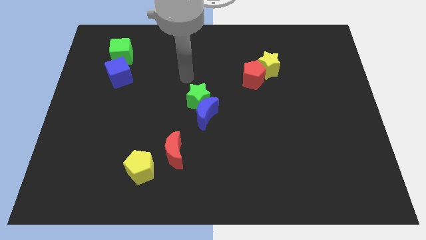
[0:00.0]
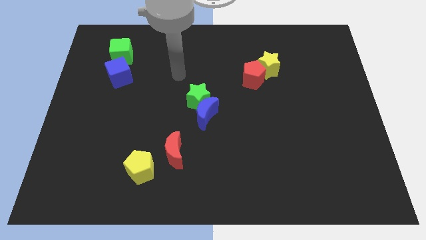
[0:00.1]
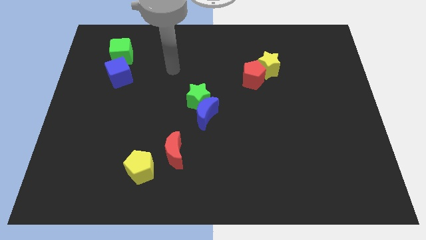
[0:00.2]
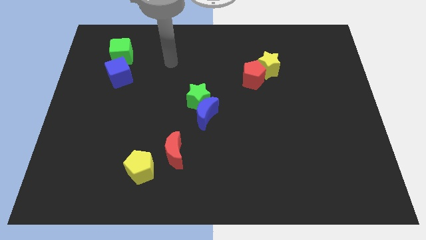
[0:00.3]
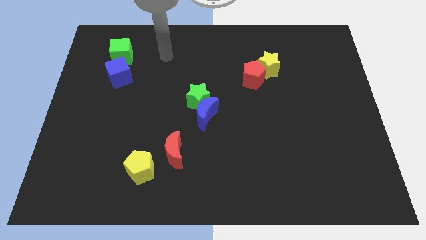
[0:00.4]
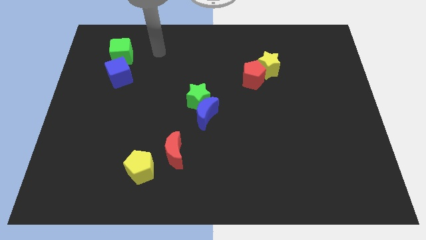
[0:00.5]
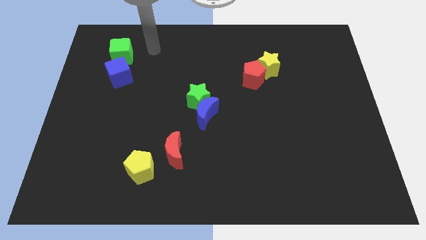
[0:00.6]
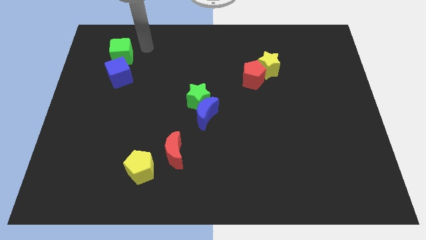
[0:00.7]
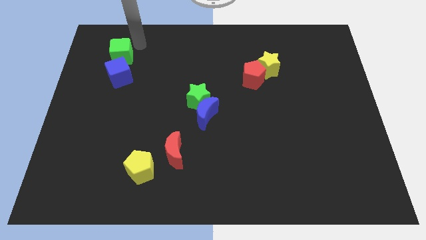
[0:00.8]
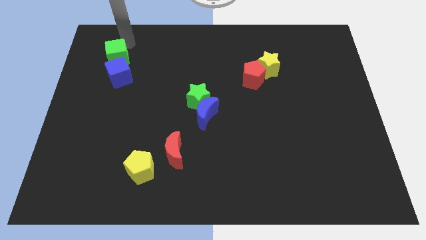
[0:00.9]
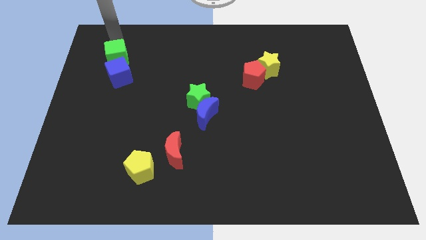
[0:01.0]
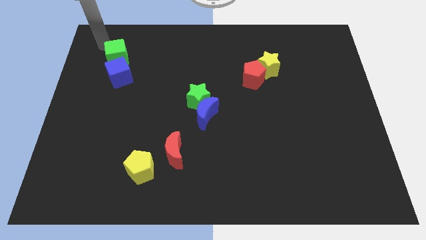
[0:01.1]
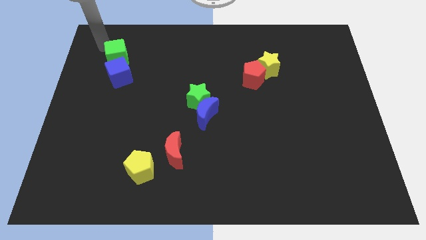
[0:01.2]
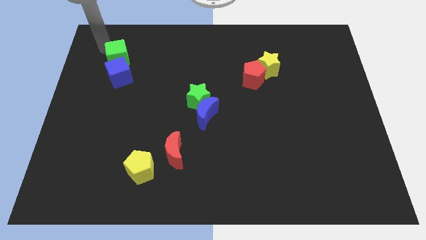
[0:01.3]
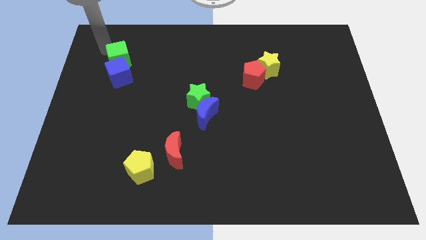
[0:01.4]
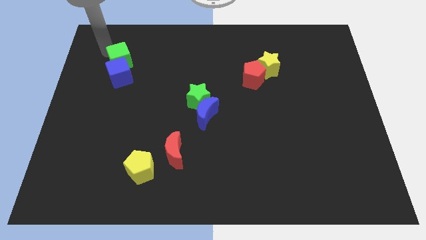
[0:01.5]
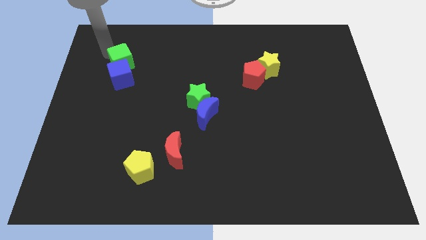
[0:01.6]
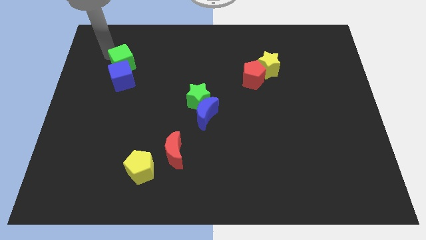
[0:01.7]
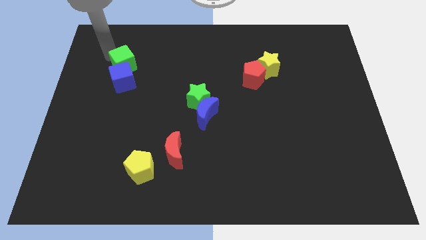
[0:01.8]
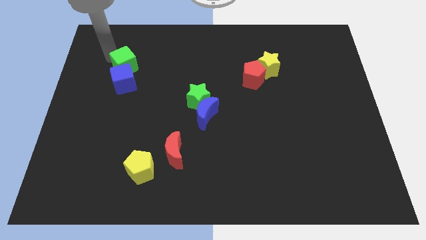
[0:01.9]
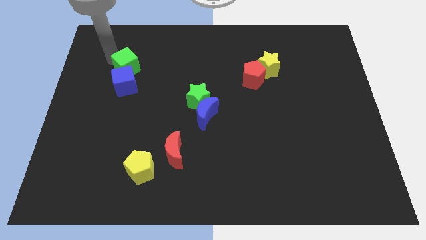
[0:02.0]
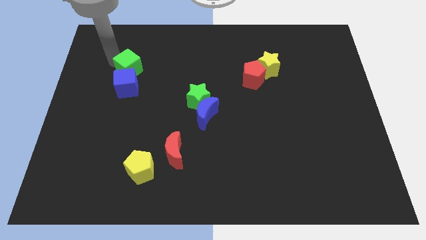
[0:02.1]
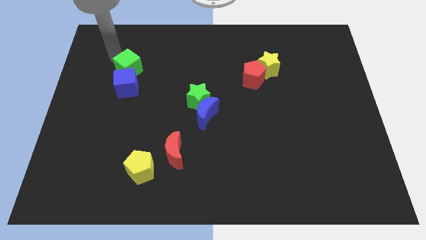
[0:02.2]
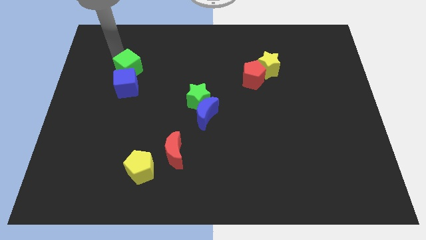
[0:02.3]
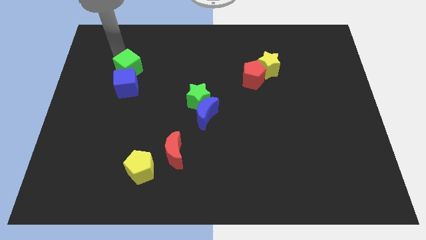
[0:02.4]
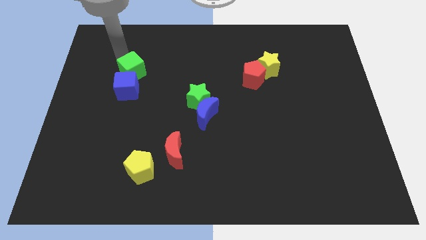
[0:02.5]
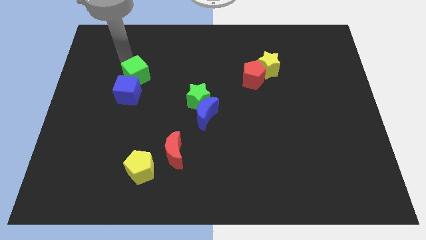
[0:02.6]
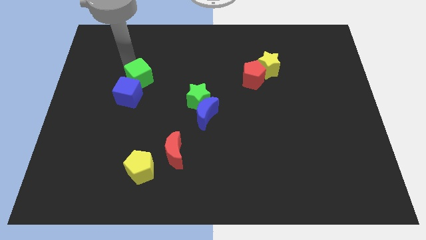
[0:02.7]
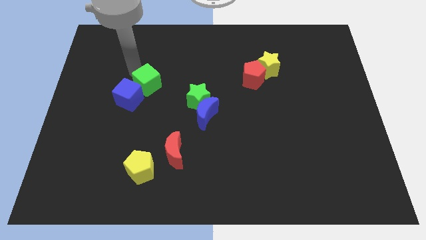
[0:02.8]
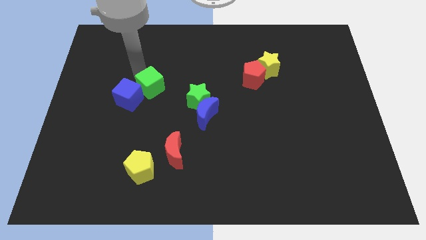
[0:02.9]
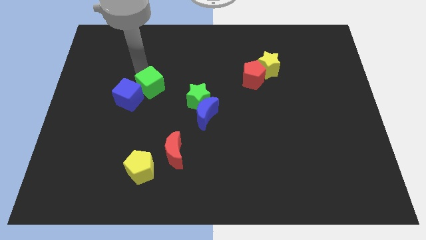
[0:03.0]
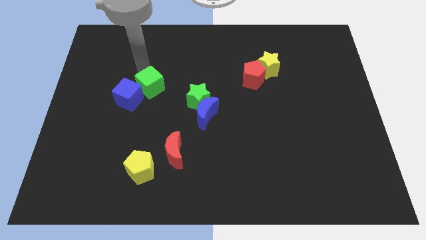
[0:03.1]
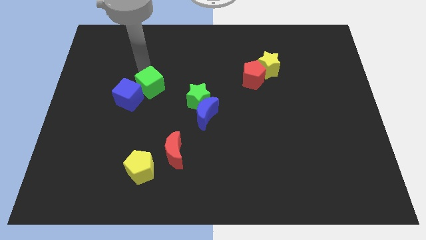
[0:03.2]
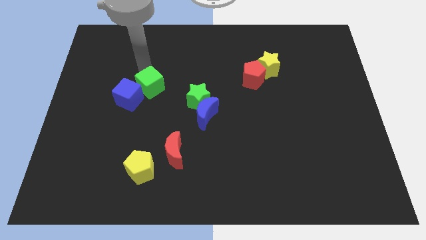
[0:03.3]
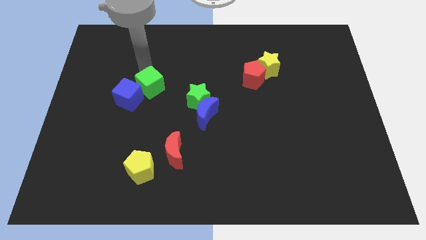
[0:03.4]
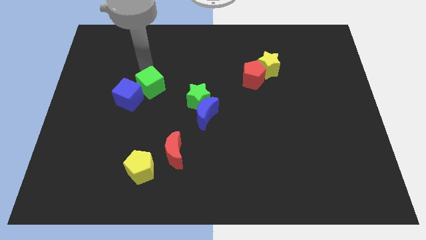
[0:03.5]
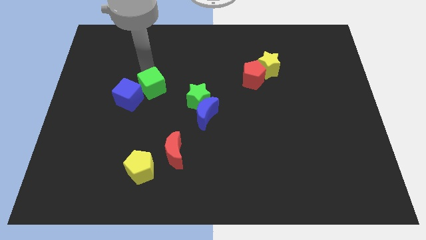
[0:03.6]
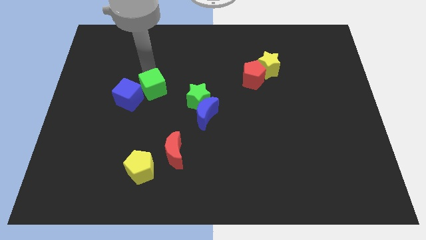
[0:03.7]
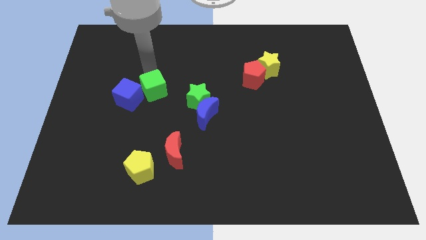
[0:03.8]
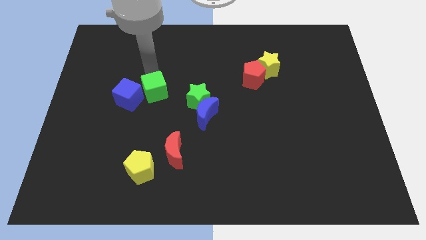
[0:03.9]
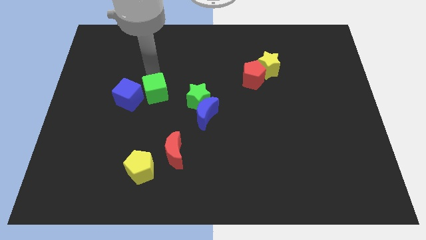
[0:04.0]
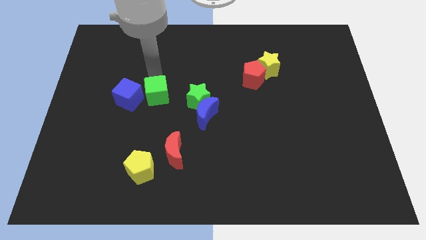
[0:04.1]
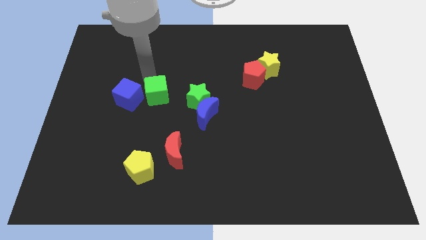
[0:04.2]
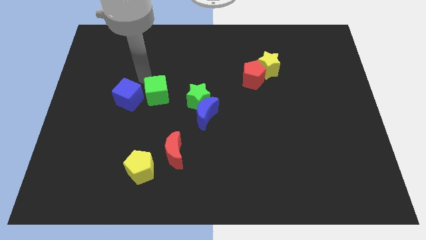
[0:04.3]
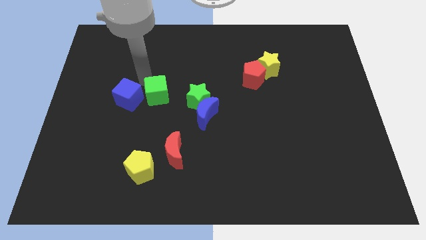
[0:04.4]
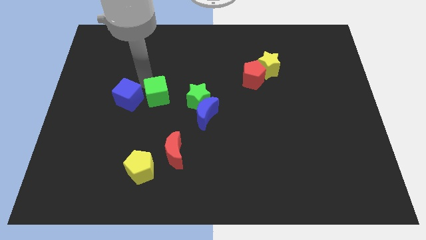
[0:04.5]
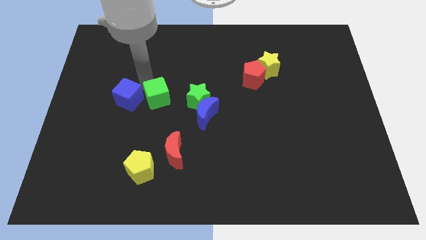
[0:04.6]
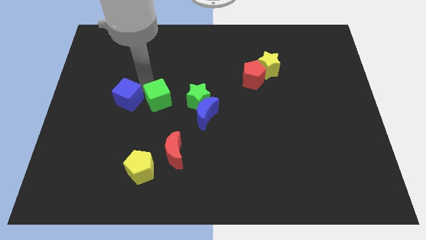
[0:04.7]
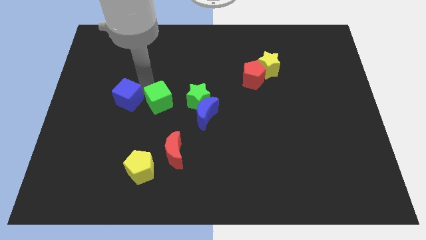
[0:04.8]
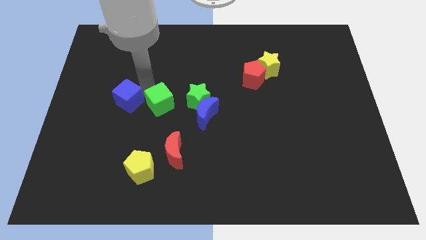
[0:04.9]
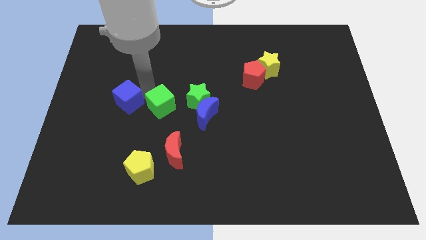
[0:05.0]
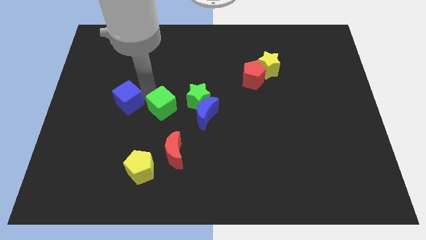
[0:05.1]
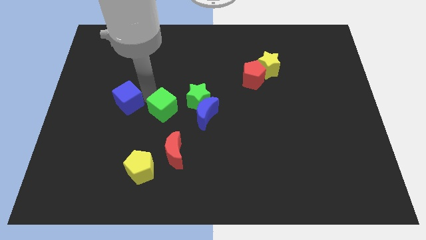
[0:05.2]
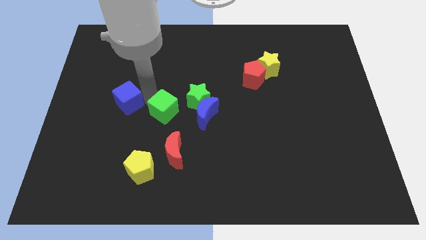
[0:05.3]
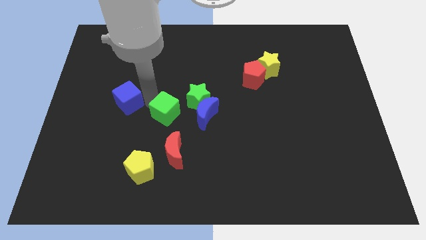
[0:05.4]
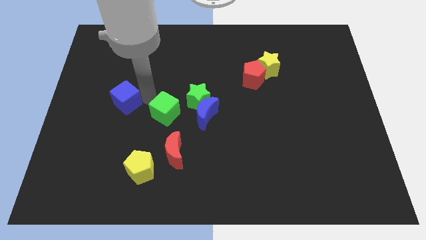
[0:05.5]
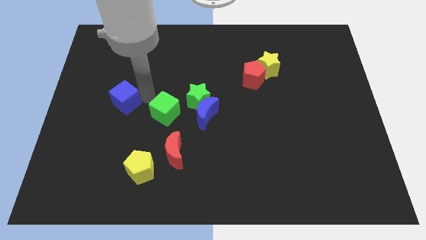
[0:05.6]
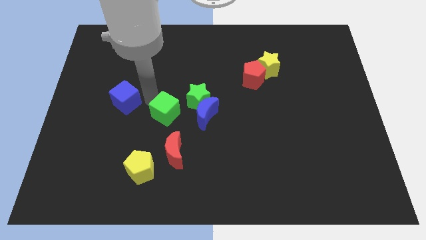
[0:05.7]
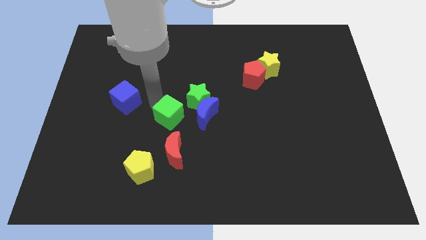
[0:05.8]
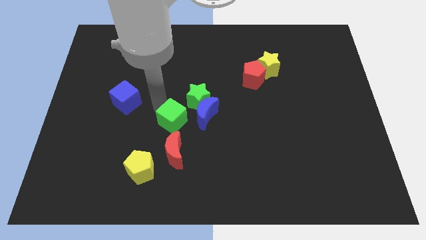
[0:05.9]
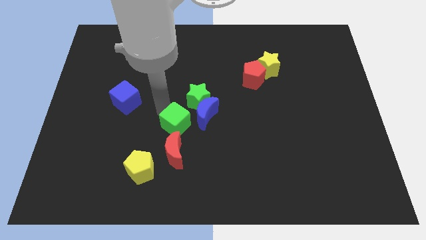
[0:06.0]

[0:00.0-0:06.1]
put the green cube to the bottom of the green star

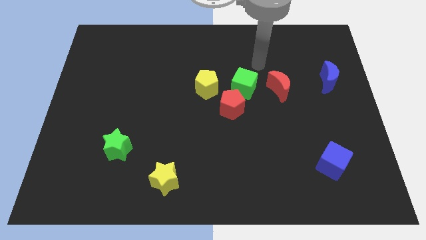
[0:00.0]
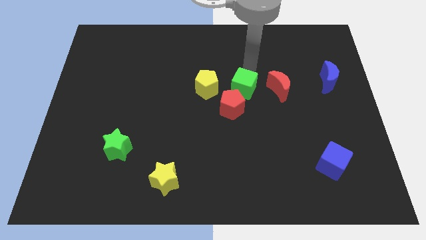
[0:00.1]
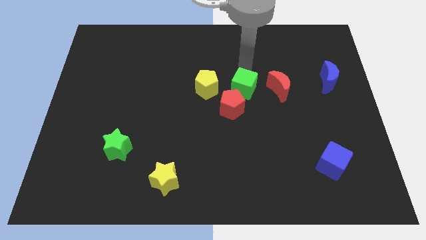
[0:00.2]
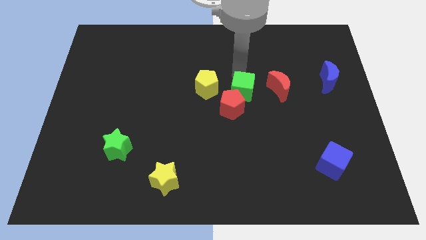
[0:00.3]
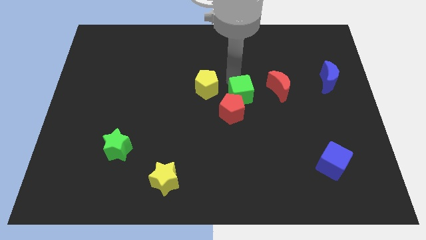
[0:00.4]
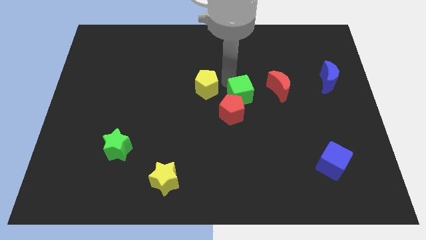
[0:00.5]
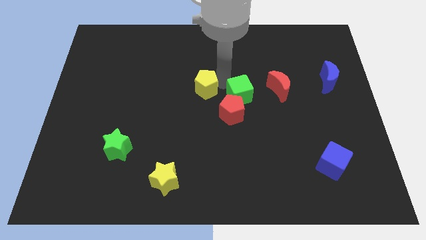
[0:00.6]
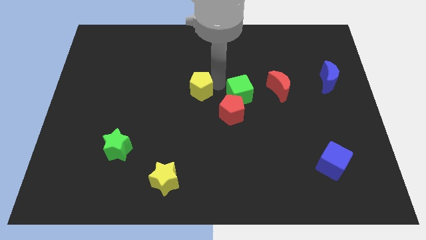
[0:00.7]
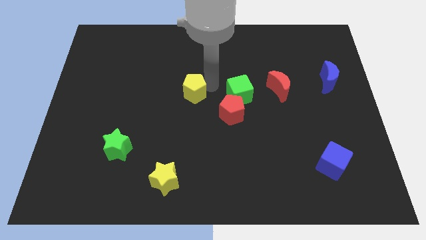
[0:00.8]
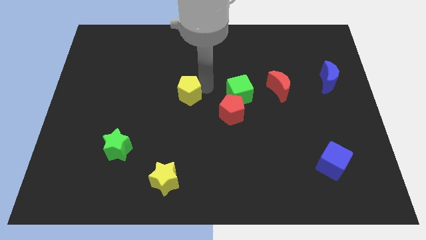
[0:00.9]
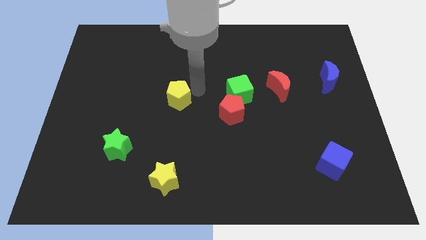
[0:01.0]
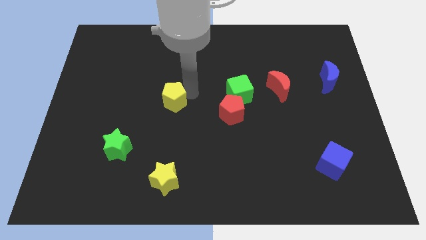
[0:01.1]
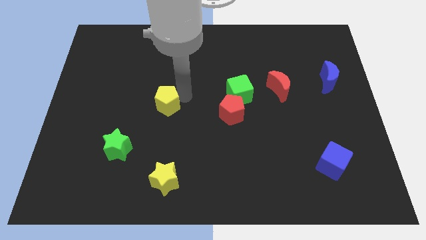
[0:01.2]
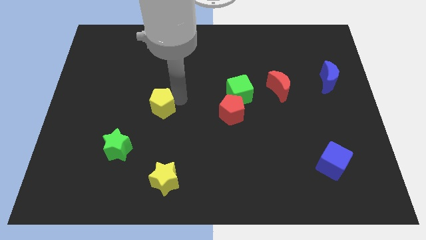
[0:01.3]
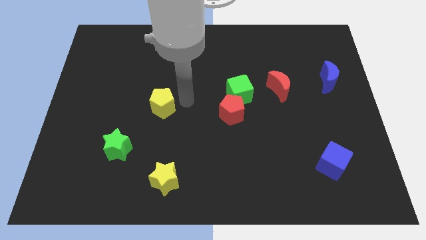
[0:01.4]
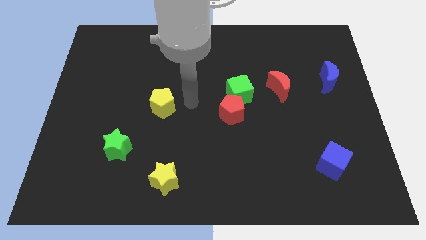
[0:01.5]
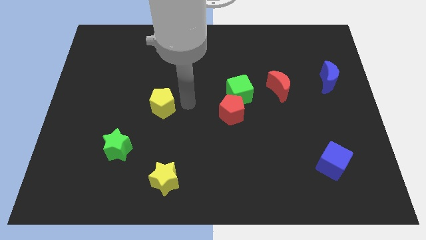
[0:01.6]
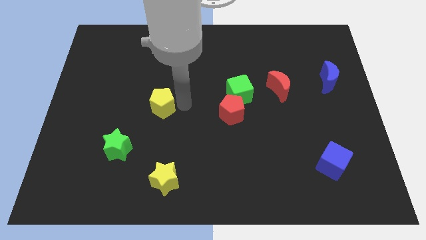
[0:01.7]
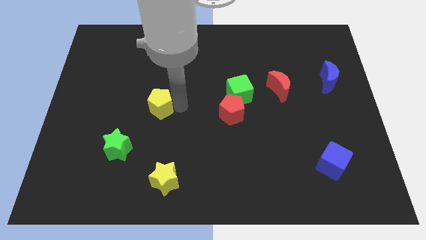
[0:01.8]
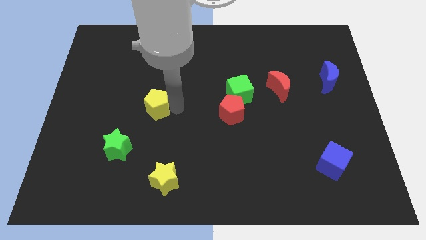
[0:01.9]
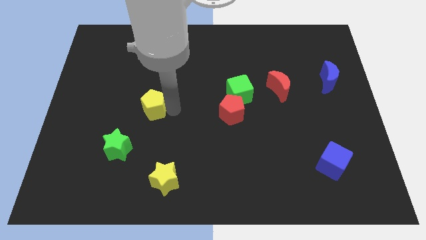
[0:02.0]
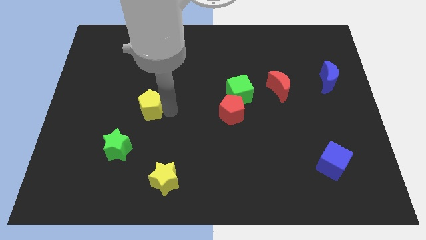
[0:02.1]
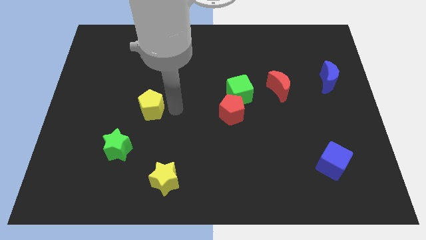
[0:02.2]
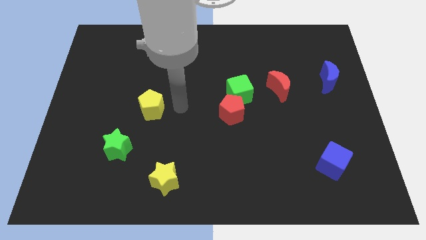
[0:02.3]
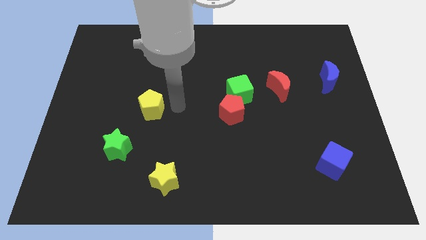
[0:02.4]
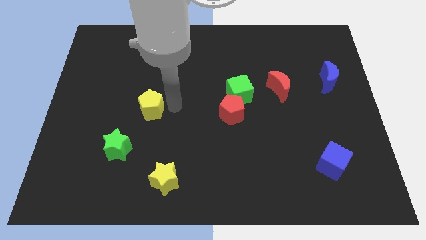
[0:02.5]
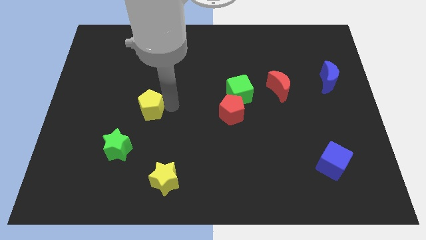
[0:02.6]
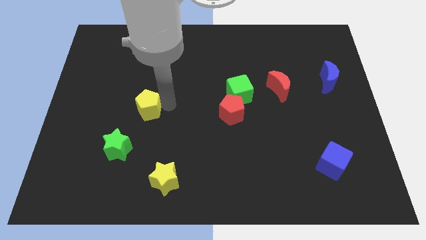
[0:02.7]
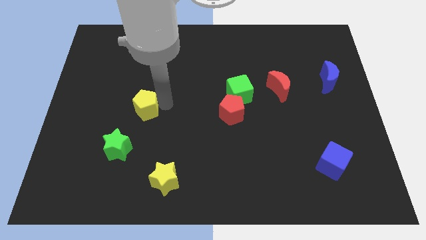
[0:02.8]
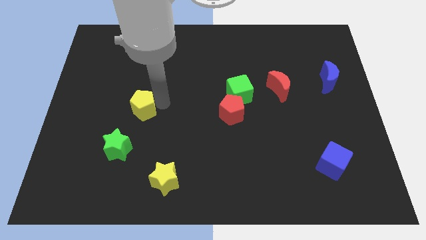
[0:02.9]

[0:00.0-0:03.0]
move the yellow pentagon to the top side of the green star
